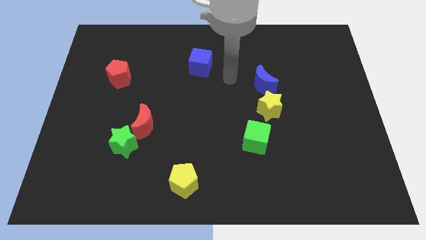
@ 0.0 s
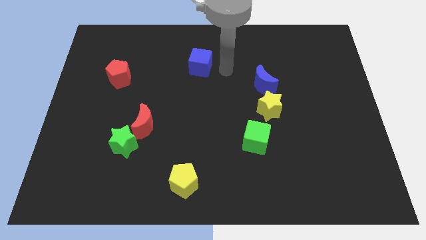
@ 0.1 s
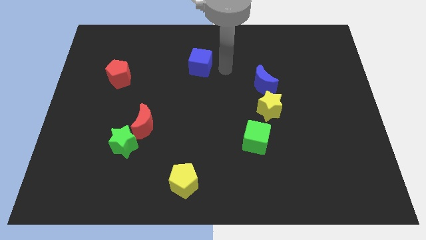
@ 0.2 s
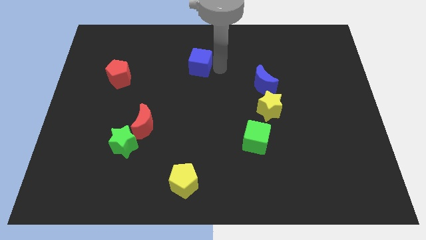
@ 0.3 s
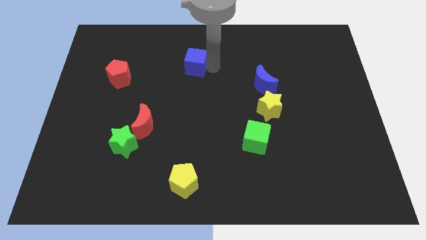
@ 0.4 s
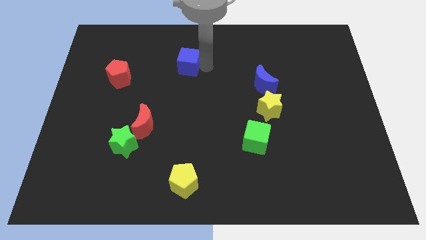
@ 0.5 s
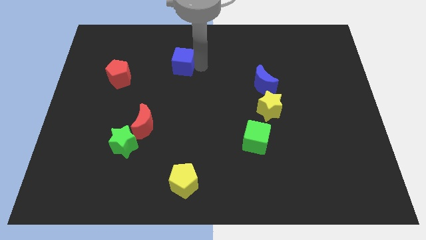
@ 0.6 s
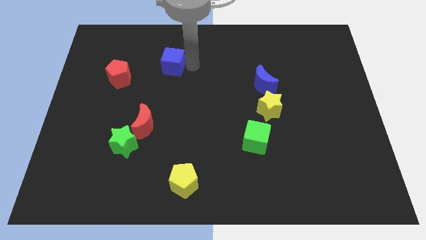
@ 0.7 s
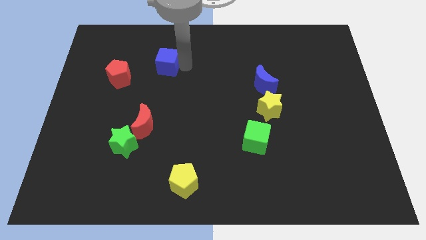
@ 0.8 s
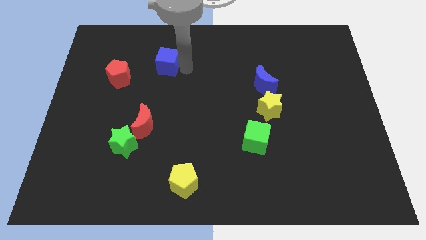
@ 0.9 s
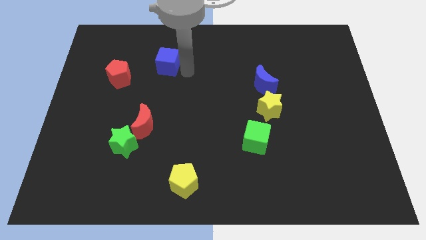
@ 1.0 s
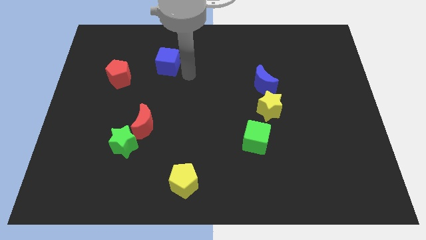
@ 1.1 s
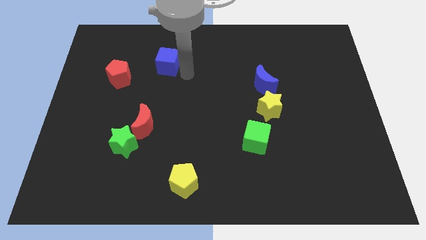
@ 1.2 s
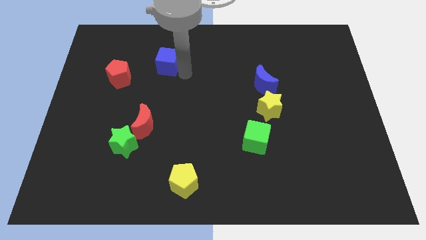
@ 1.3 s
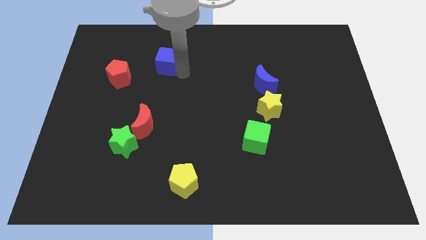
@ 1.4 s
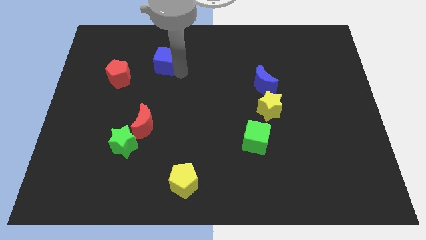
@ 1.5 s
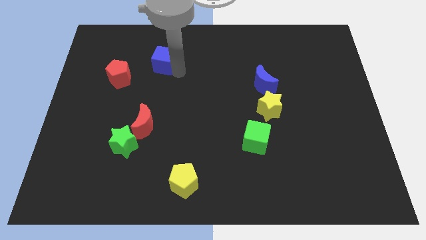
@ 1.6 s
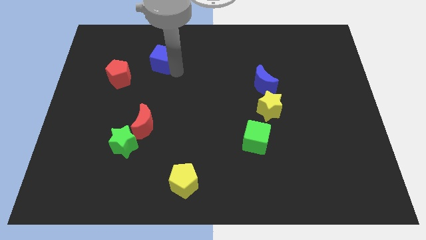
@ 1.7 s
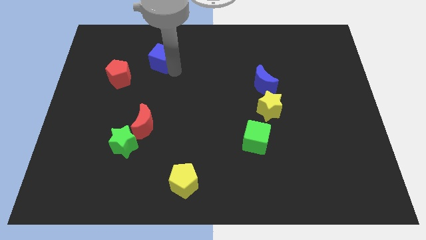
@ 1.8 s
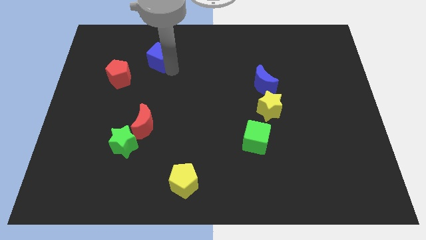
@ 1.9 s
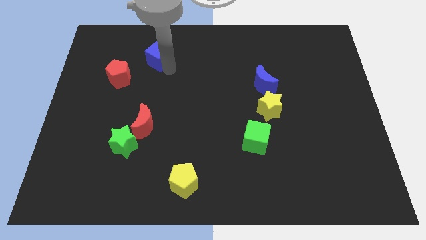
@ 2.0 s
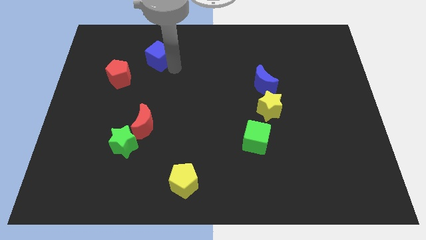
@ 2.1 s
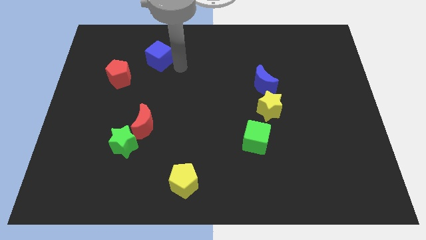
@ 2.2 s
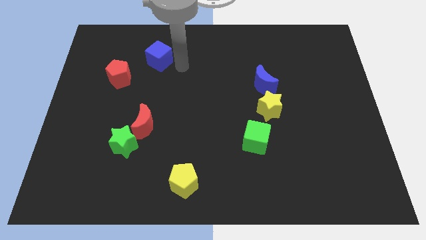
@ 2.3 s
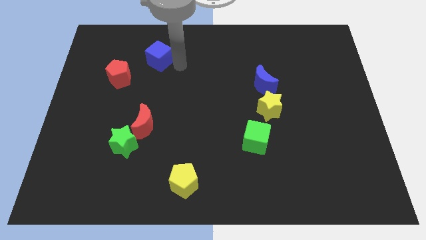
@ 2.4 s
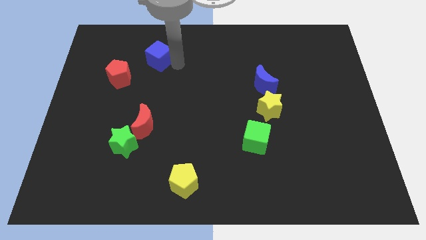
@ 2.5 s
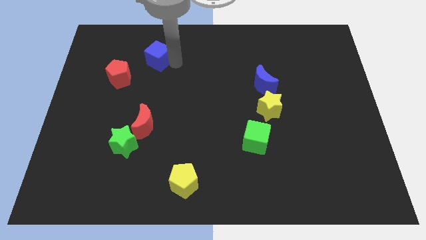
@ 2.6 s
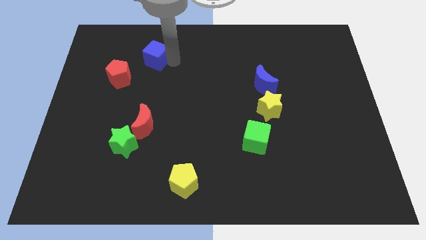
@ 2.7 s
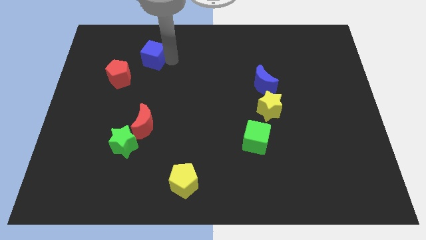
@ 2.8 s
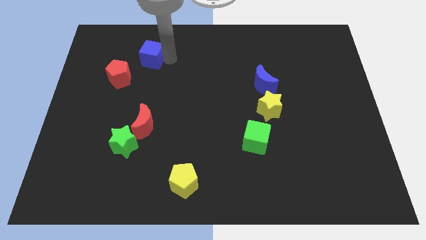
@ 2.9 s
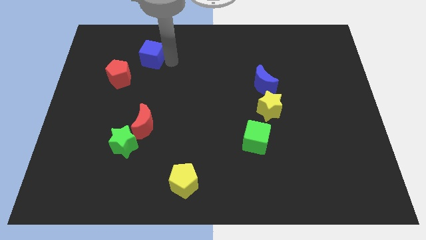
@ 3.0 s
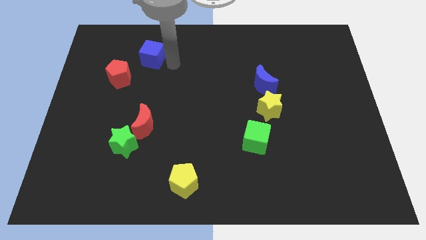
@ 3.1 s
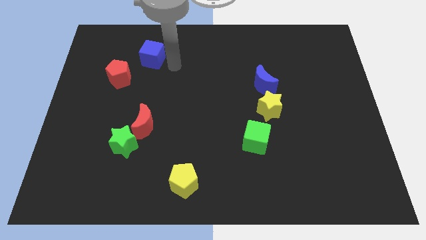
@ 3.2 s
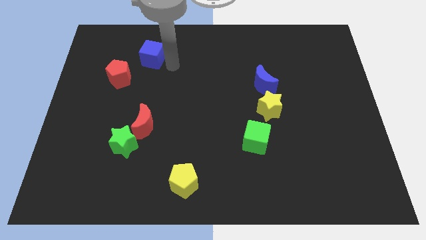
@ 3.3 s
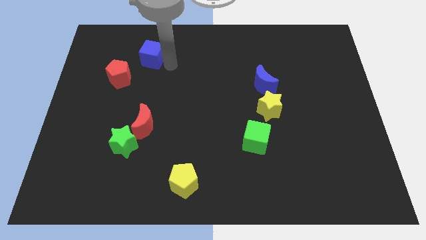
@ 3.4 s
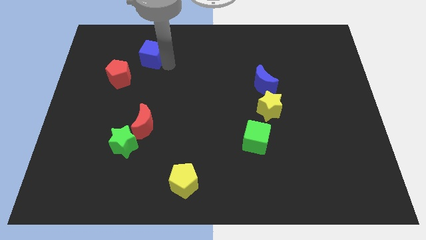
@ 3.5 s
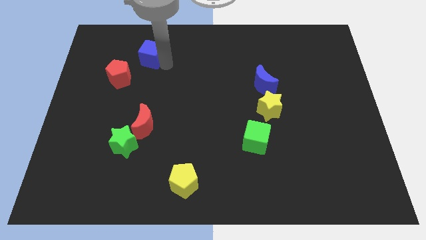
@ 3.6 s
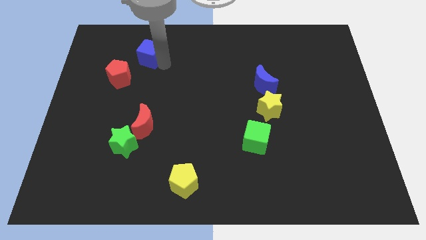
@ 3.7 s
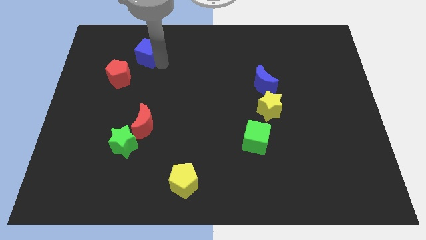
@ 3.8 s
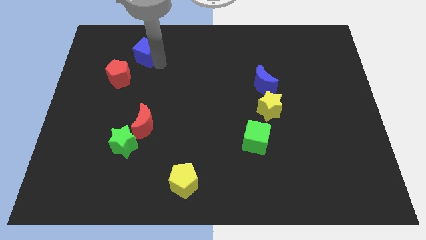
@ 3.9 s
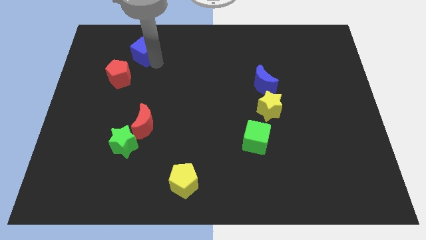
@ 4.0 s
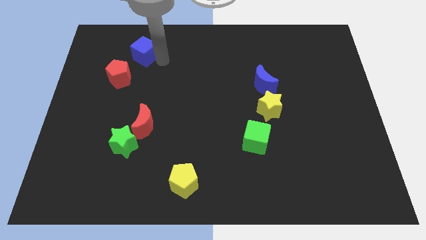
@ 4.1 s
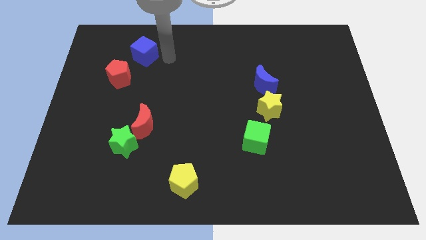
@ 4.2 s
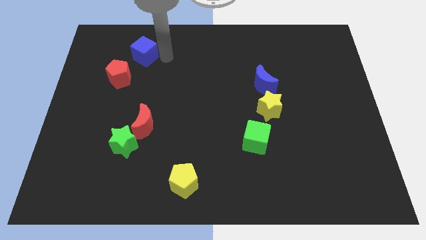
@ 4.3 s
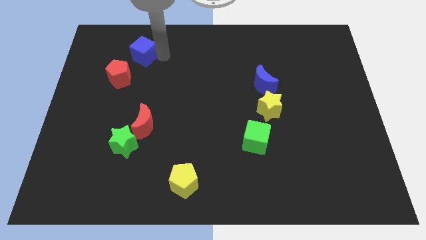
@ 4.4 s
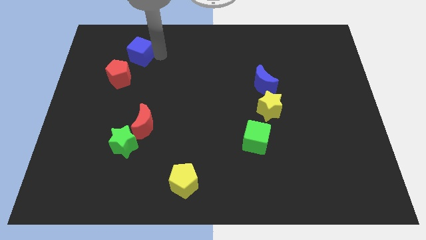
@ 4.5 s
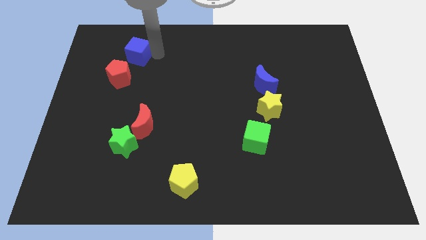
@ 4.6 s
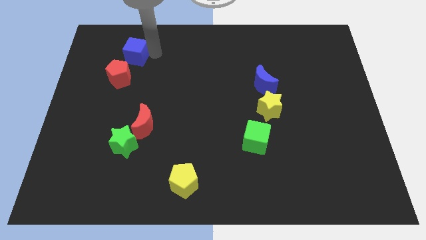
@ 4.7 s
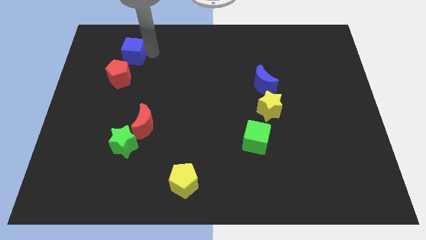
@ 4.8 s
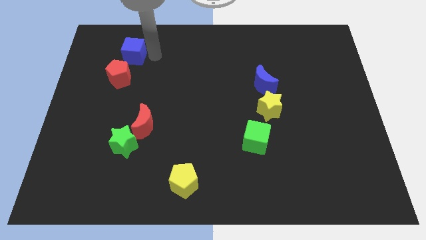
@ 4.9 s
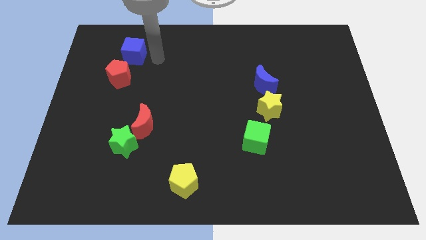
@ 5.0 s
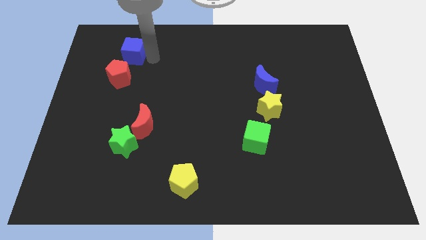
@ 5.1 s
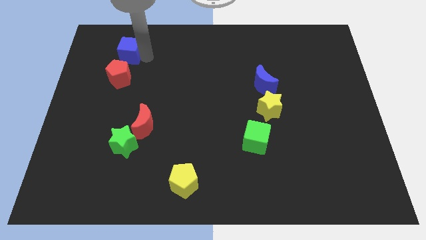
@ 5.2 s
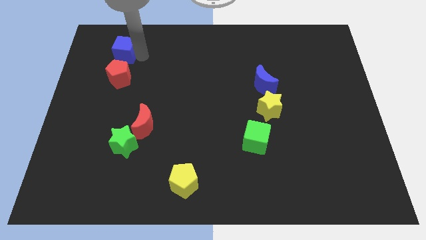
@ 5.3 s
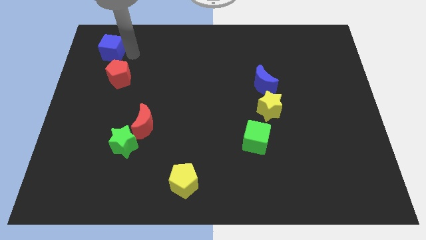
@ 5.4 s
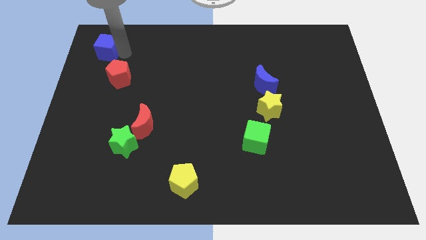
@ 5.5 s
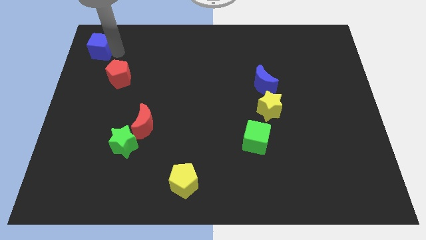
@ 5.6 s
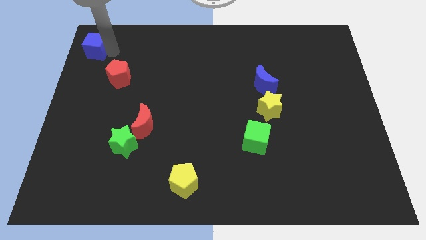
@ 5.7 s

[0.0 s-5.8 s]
push the blue cube to the top left of the board

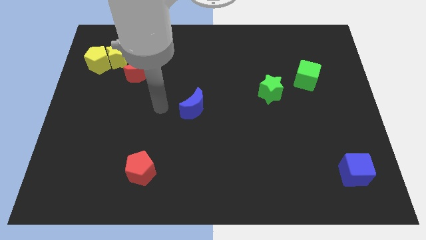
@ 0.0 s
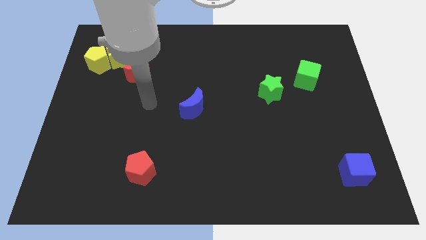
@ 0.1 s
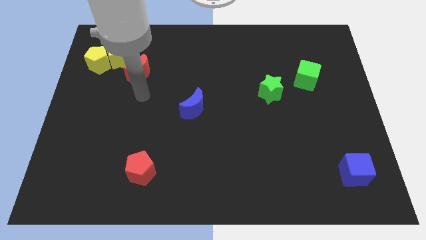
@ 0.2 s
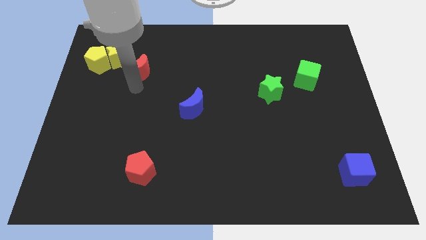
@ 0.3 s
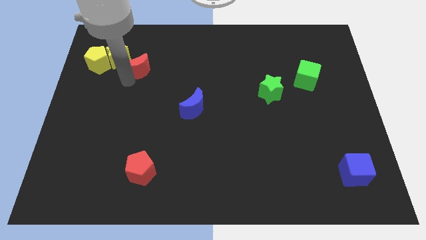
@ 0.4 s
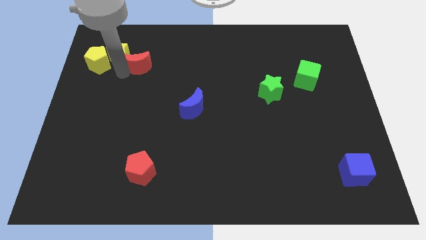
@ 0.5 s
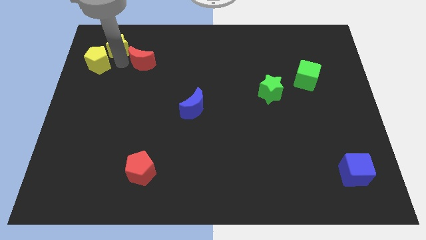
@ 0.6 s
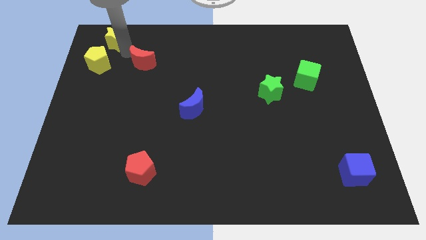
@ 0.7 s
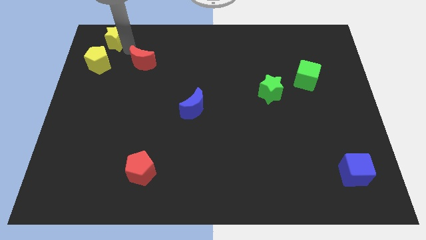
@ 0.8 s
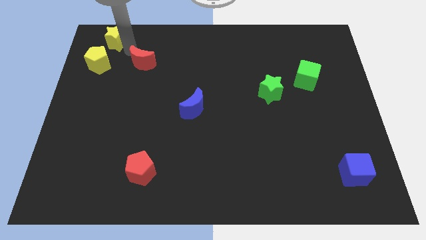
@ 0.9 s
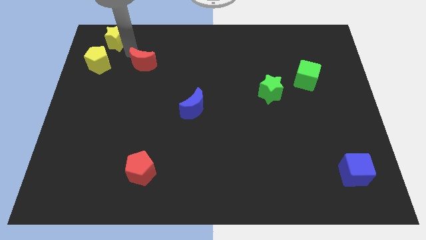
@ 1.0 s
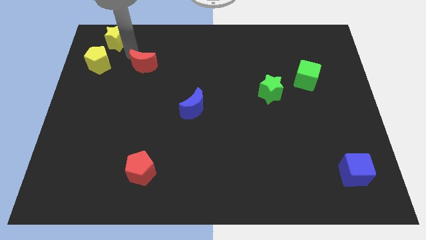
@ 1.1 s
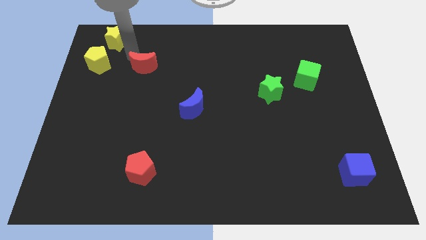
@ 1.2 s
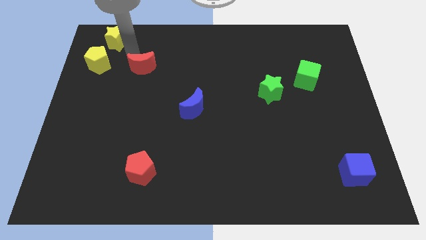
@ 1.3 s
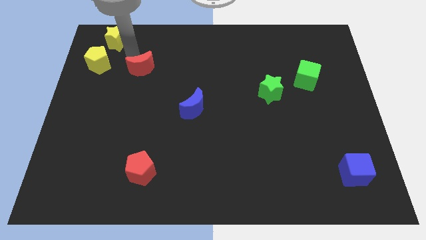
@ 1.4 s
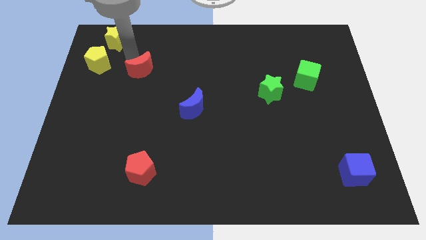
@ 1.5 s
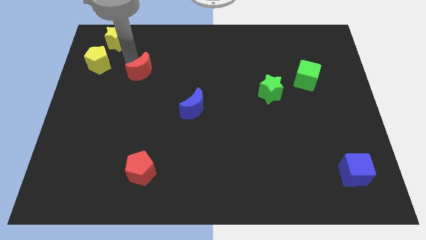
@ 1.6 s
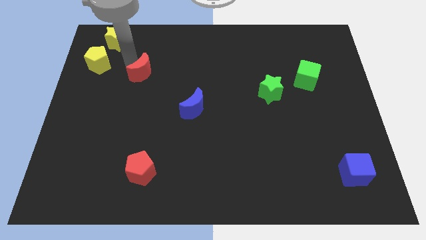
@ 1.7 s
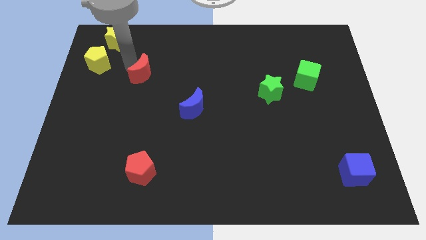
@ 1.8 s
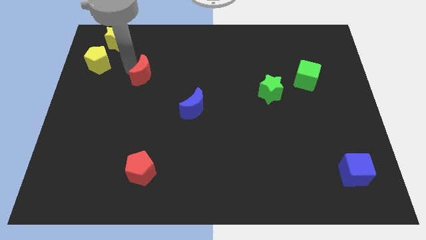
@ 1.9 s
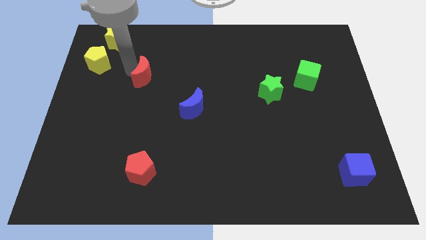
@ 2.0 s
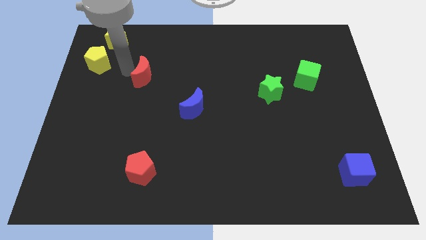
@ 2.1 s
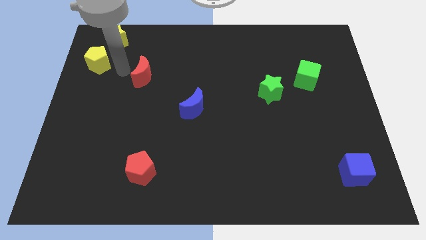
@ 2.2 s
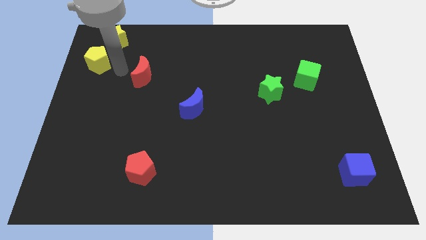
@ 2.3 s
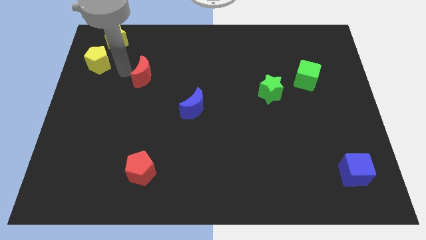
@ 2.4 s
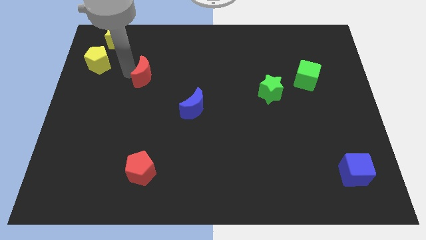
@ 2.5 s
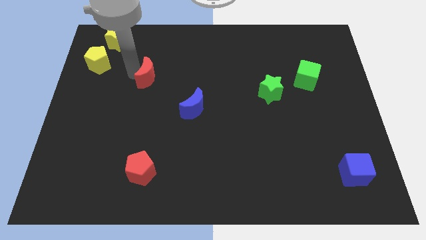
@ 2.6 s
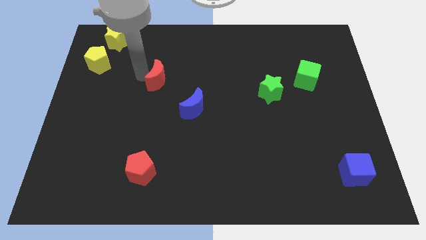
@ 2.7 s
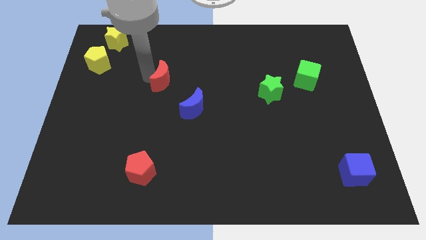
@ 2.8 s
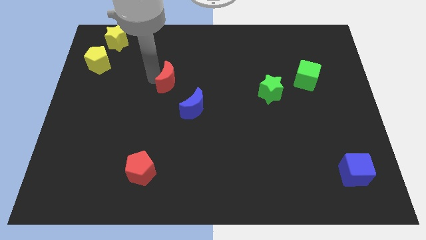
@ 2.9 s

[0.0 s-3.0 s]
slide the red moon to the middle
